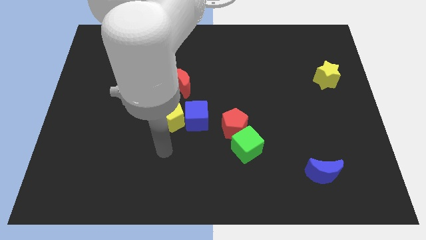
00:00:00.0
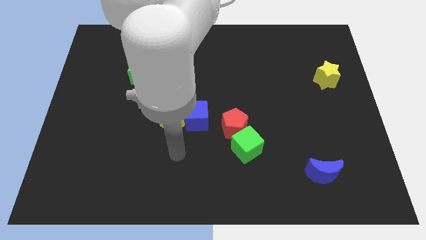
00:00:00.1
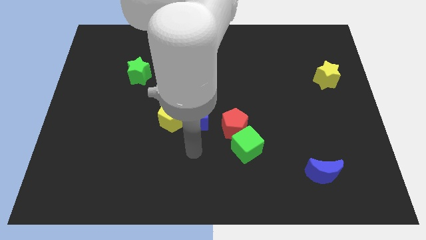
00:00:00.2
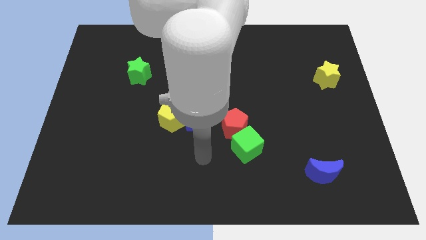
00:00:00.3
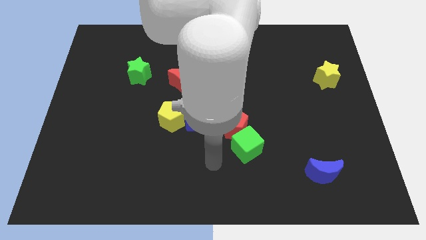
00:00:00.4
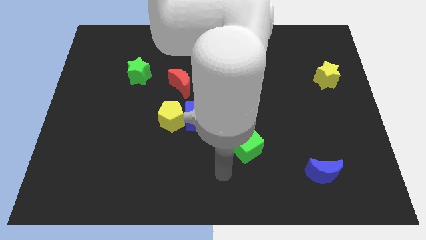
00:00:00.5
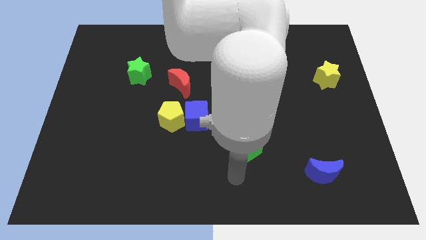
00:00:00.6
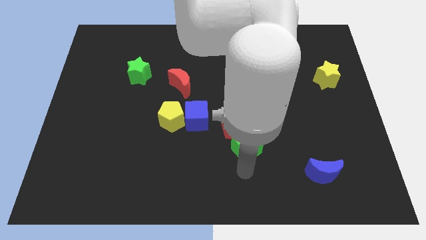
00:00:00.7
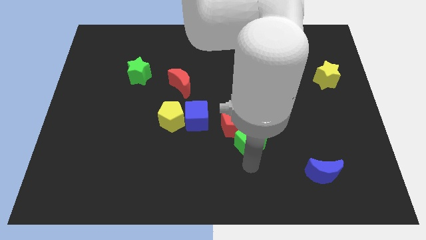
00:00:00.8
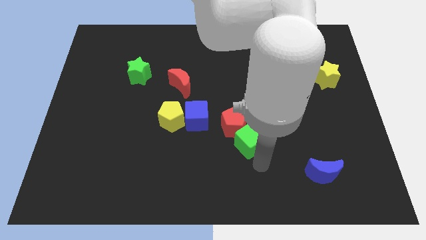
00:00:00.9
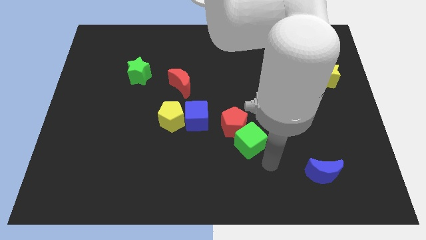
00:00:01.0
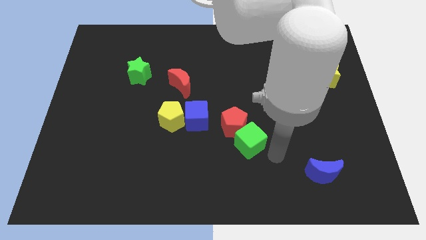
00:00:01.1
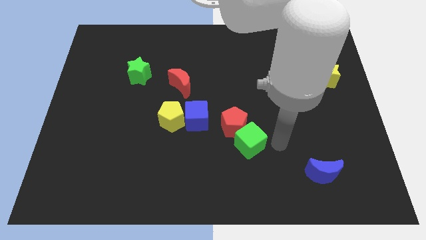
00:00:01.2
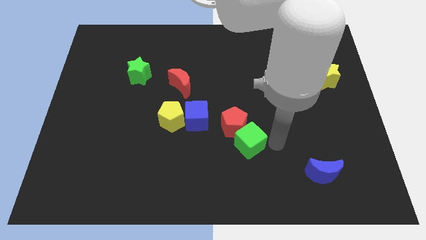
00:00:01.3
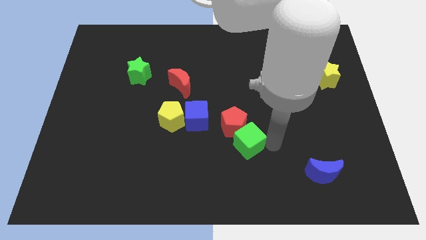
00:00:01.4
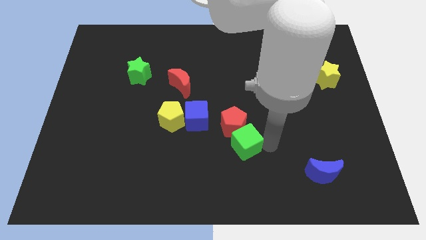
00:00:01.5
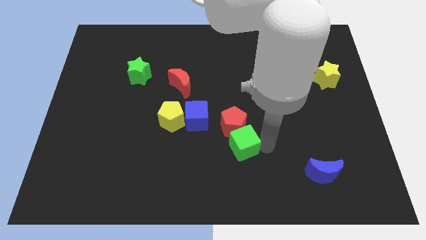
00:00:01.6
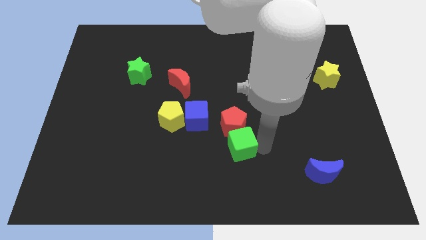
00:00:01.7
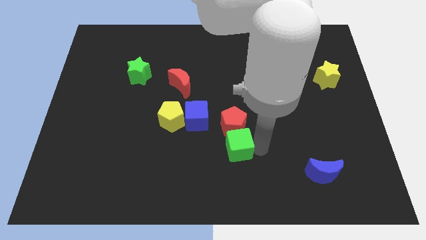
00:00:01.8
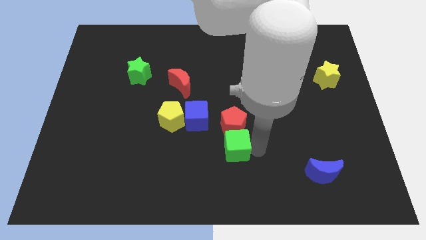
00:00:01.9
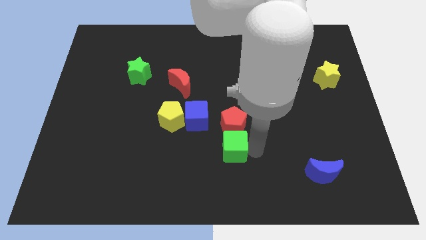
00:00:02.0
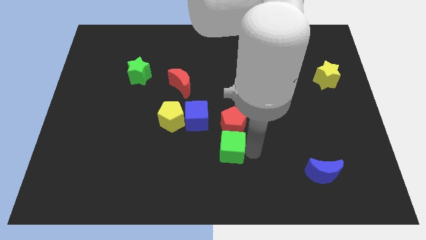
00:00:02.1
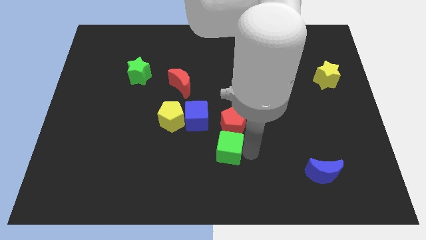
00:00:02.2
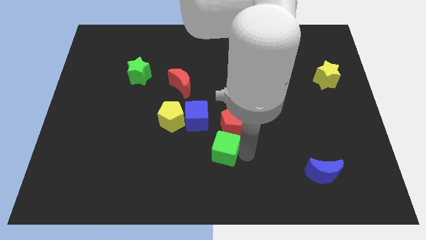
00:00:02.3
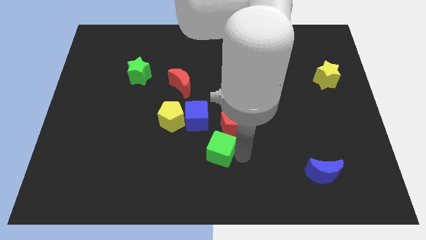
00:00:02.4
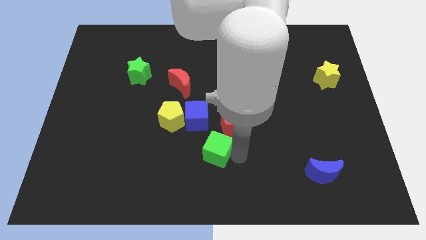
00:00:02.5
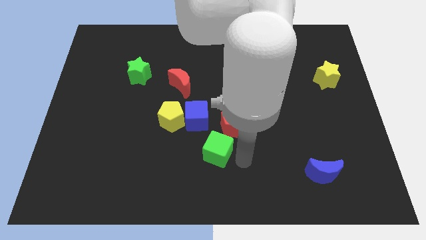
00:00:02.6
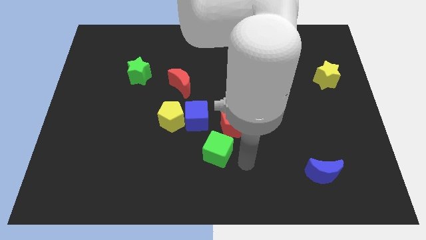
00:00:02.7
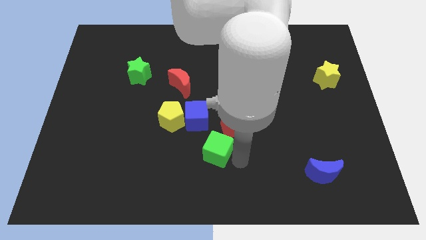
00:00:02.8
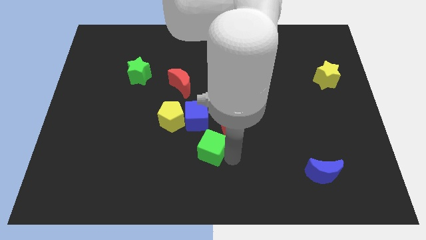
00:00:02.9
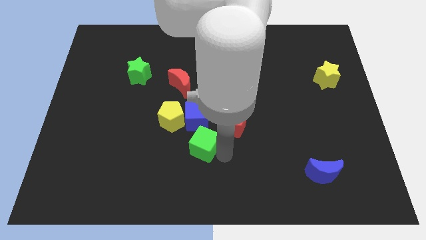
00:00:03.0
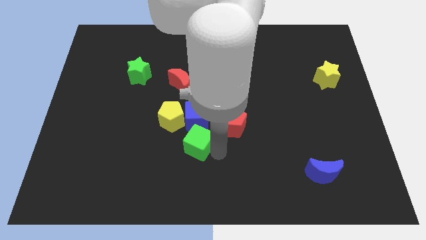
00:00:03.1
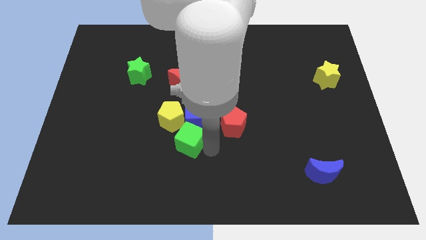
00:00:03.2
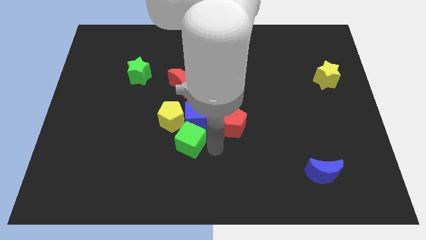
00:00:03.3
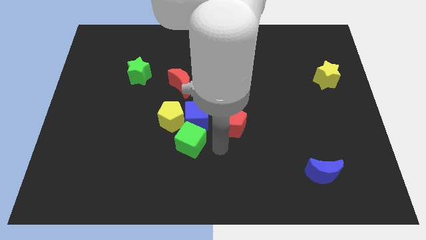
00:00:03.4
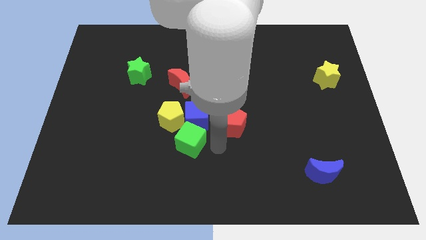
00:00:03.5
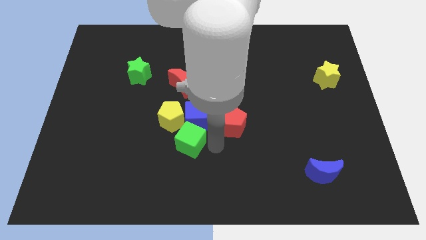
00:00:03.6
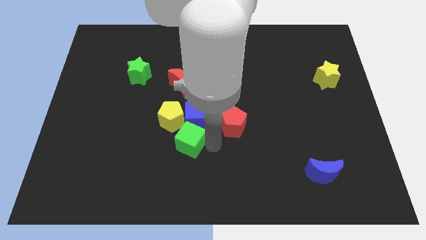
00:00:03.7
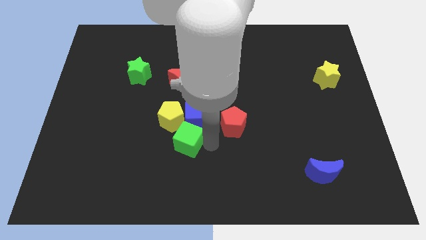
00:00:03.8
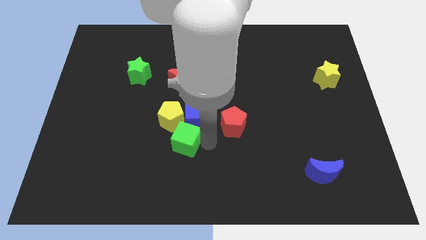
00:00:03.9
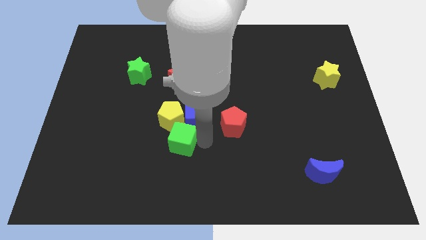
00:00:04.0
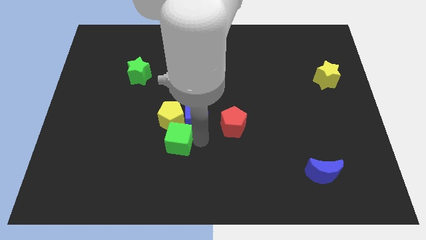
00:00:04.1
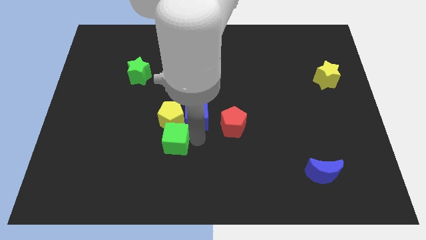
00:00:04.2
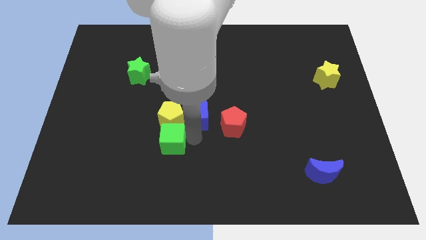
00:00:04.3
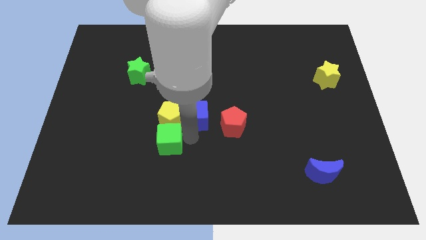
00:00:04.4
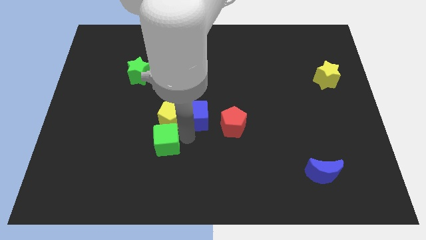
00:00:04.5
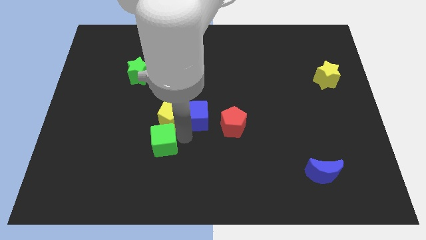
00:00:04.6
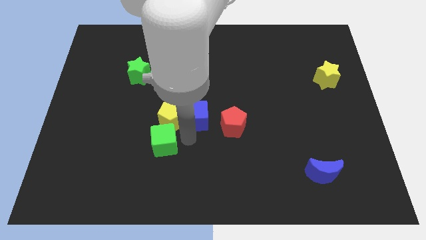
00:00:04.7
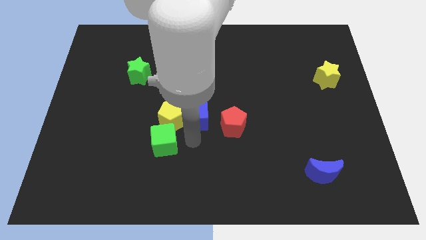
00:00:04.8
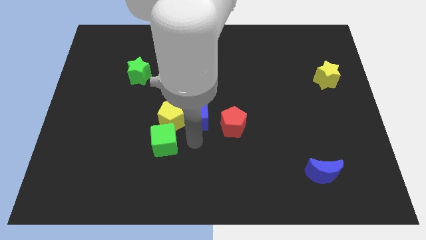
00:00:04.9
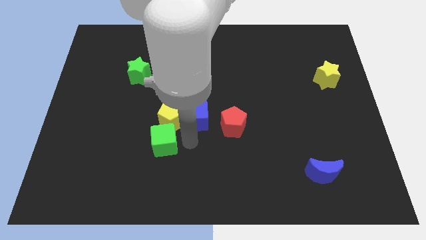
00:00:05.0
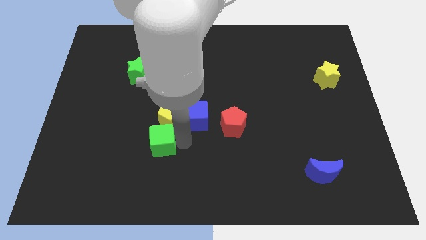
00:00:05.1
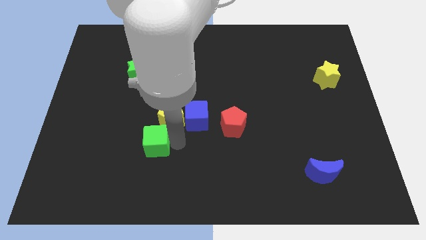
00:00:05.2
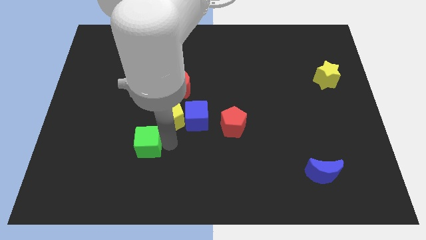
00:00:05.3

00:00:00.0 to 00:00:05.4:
move the green cube left

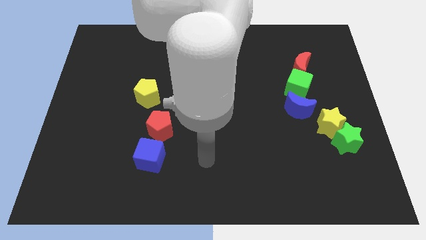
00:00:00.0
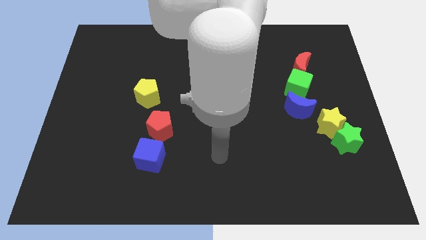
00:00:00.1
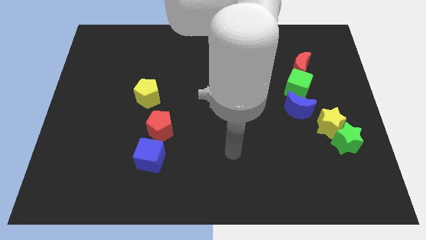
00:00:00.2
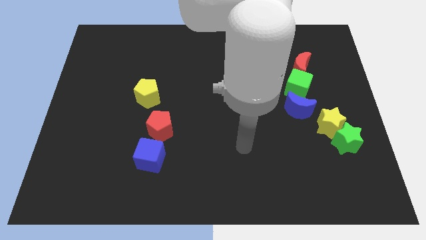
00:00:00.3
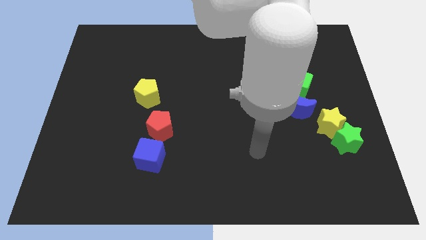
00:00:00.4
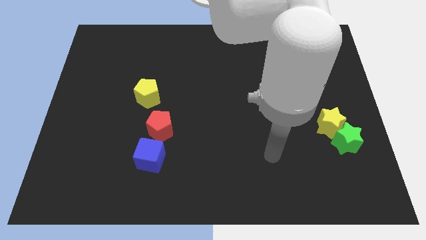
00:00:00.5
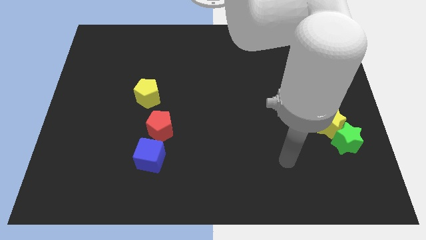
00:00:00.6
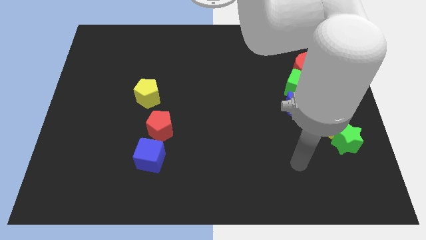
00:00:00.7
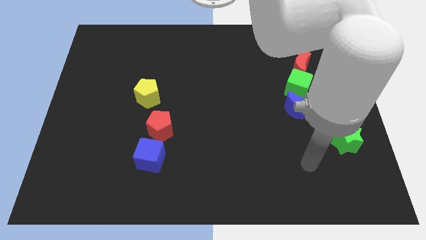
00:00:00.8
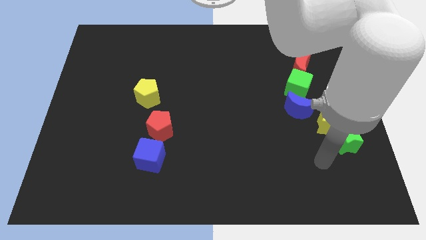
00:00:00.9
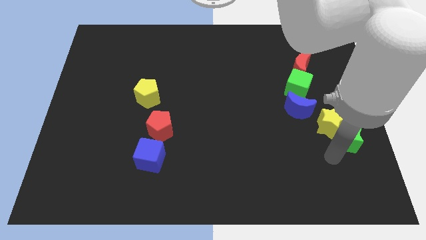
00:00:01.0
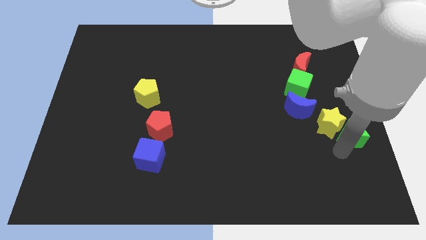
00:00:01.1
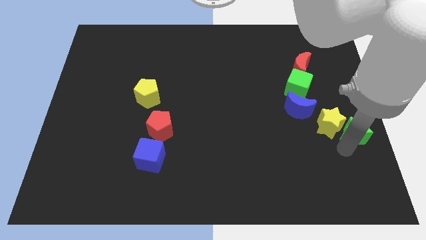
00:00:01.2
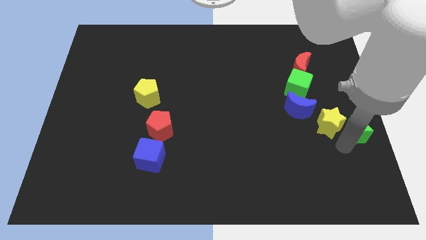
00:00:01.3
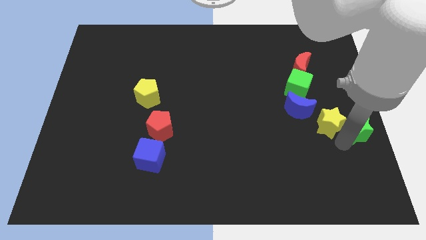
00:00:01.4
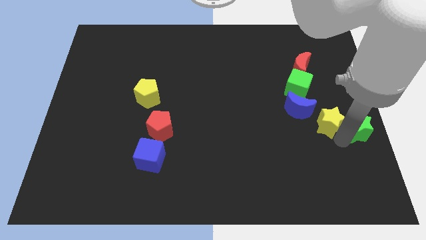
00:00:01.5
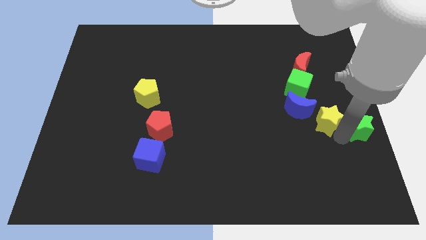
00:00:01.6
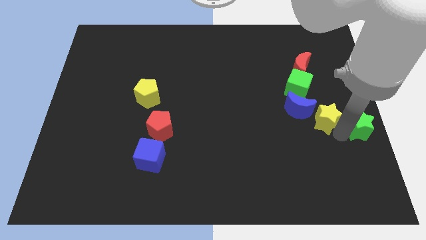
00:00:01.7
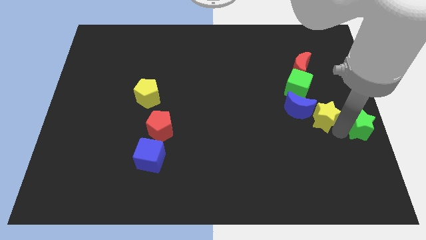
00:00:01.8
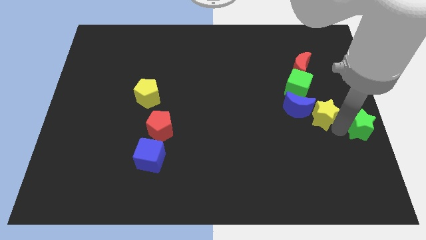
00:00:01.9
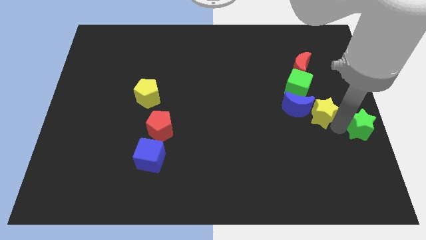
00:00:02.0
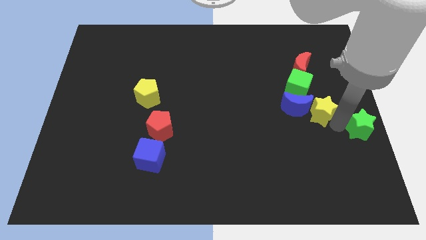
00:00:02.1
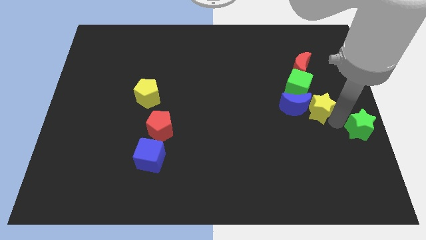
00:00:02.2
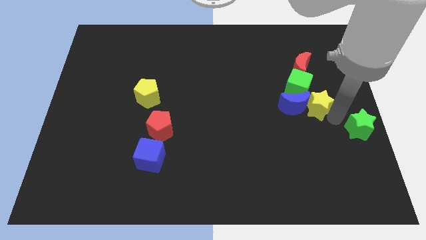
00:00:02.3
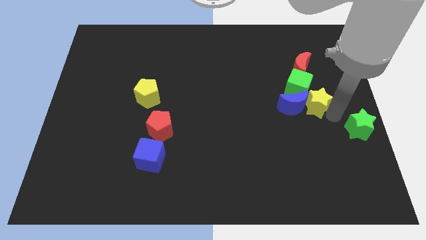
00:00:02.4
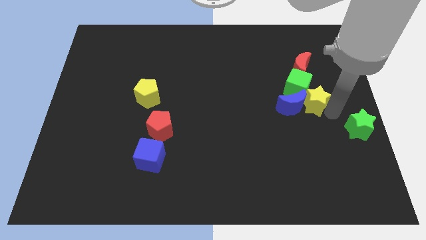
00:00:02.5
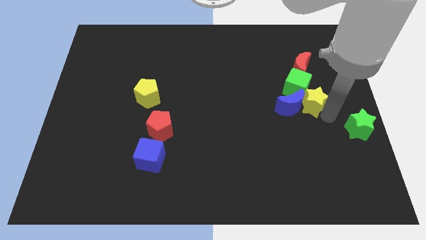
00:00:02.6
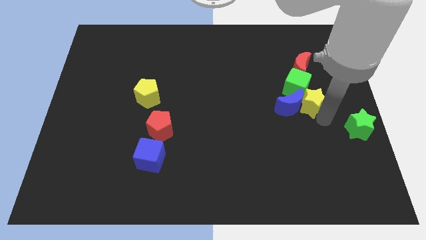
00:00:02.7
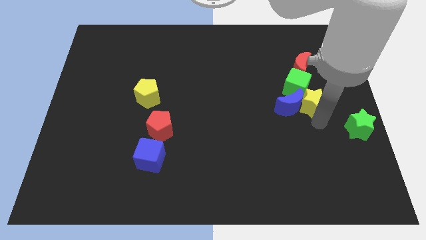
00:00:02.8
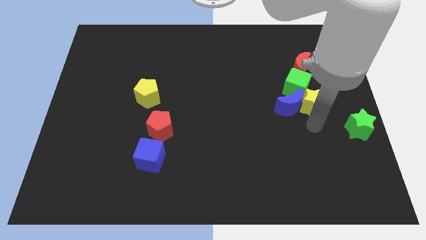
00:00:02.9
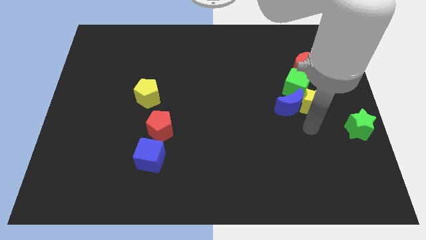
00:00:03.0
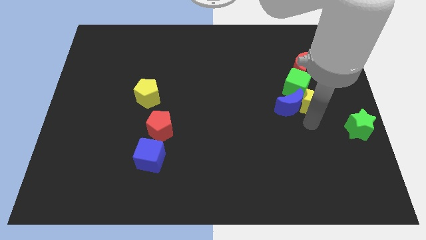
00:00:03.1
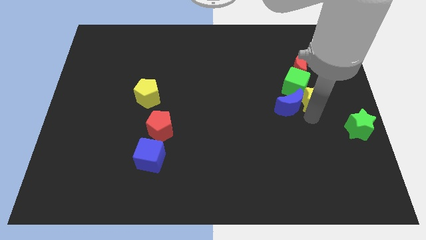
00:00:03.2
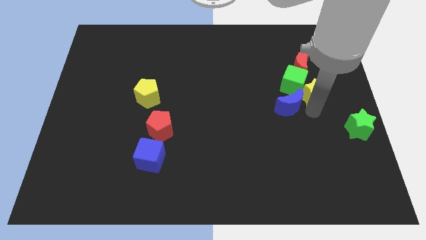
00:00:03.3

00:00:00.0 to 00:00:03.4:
slightly move the yellow star upwards
